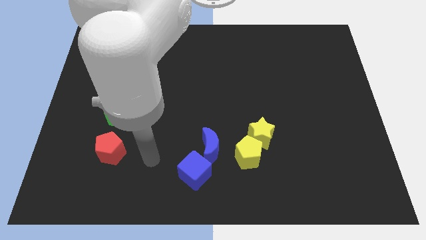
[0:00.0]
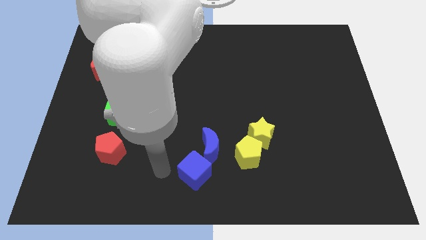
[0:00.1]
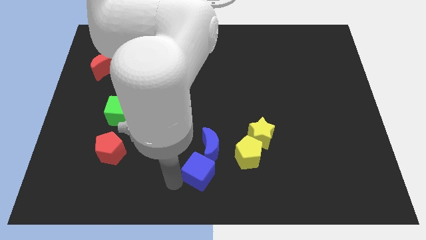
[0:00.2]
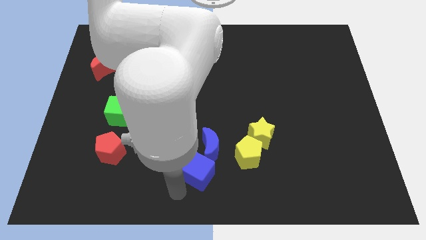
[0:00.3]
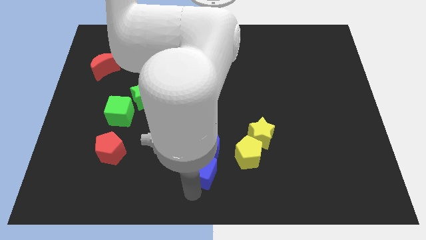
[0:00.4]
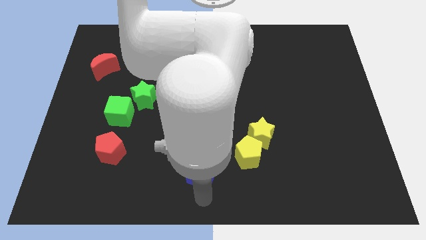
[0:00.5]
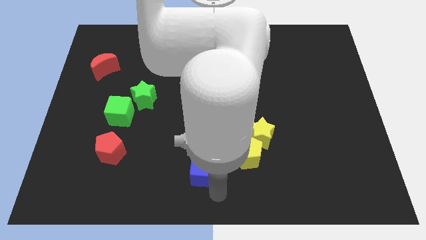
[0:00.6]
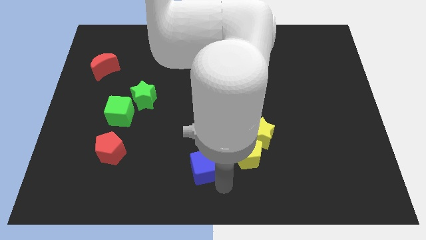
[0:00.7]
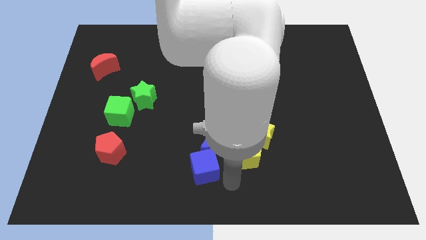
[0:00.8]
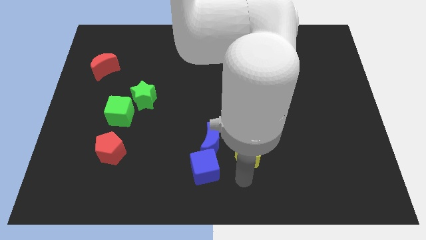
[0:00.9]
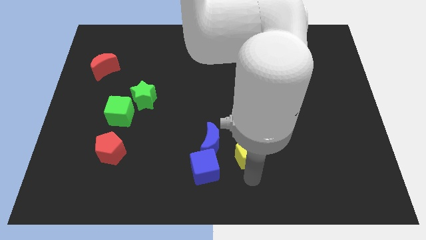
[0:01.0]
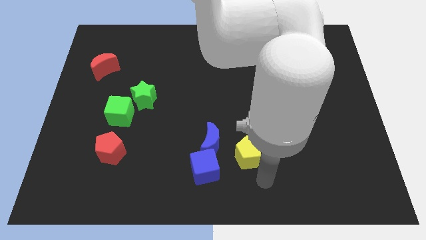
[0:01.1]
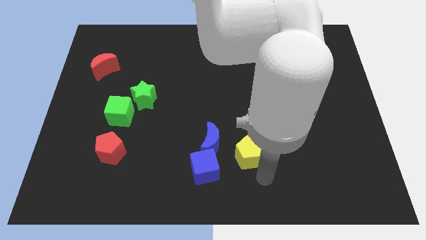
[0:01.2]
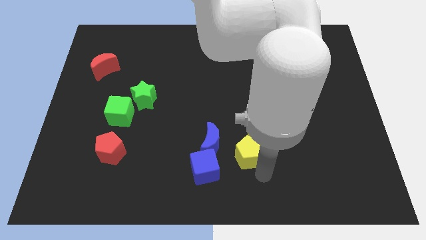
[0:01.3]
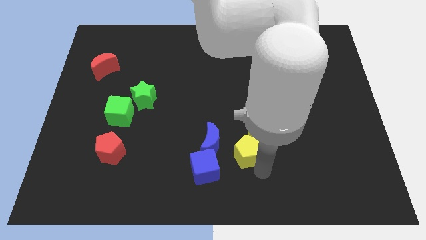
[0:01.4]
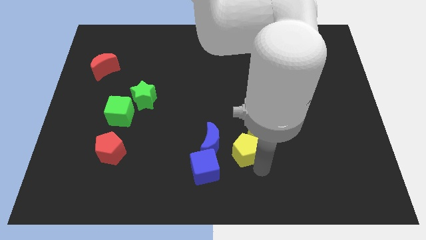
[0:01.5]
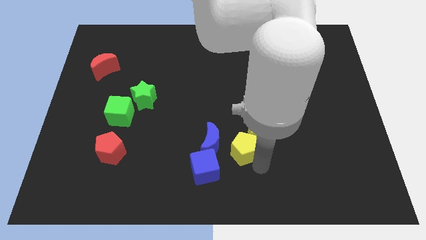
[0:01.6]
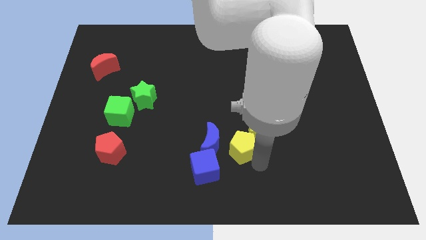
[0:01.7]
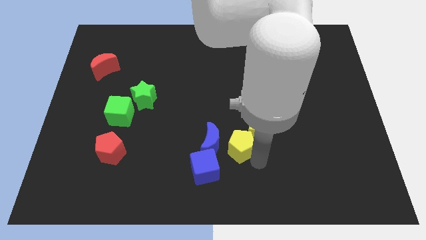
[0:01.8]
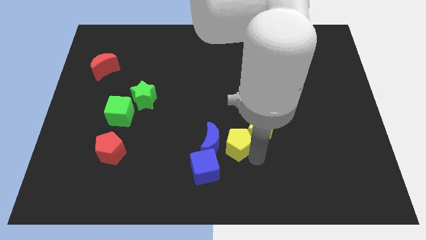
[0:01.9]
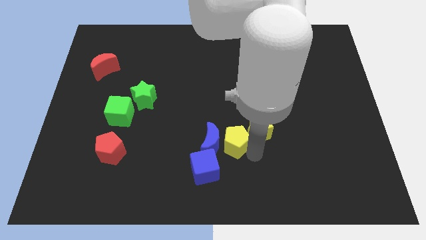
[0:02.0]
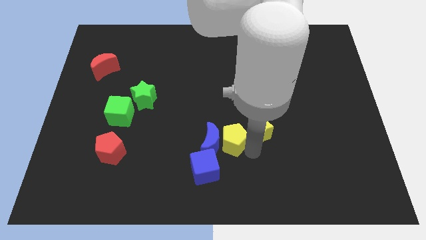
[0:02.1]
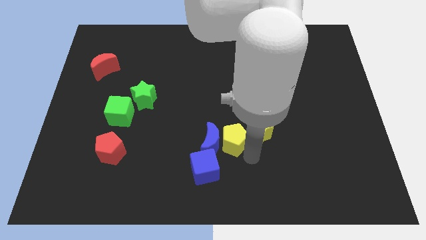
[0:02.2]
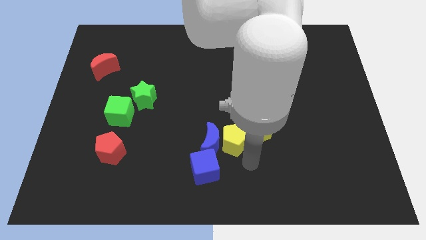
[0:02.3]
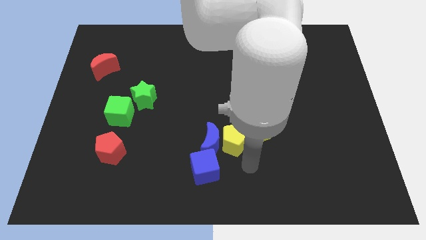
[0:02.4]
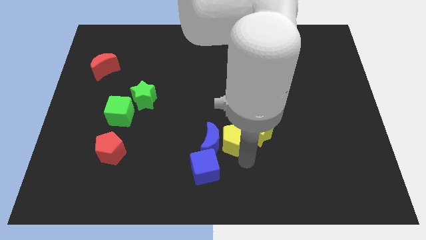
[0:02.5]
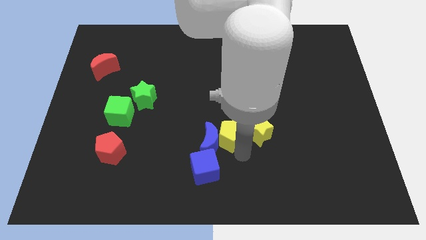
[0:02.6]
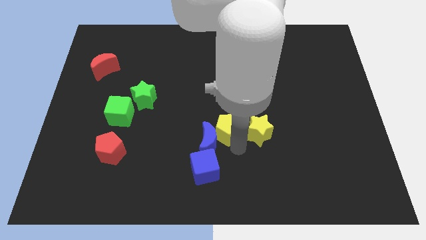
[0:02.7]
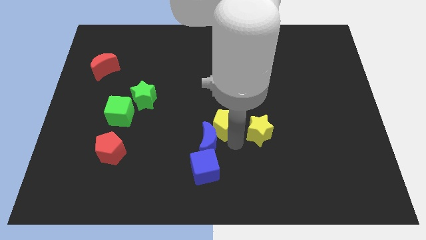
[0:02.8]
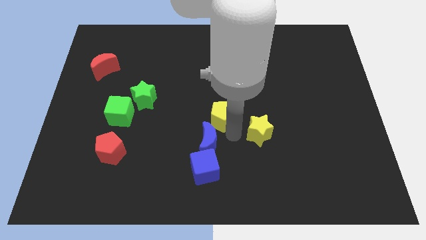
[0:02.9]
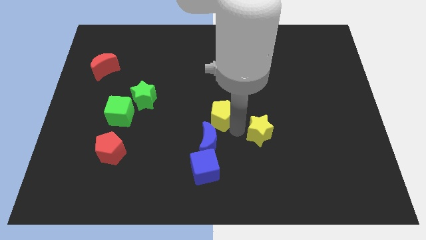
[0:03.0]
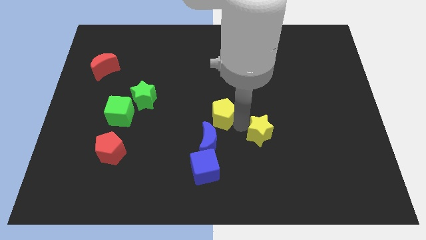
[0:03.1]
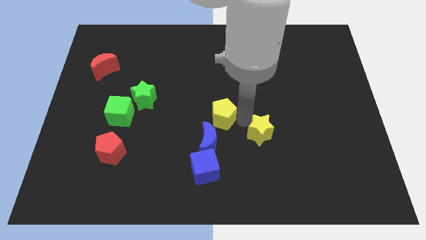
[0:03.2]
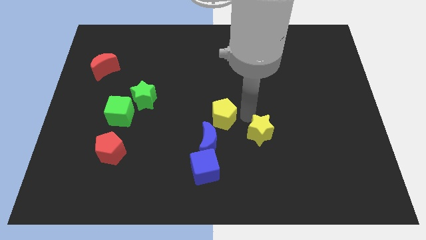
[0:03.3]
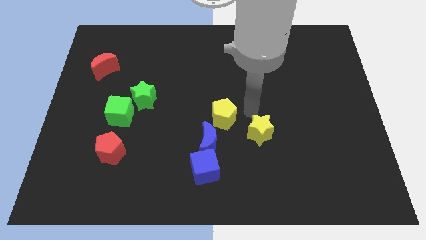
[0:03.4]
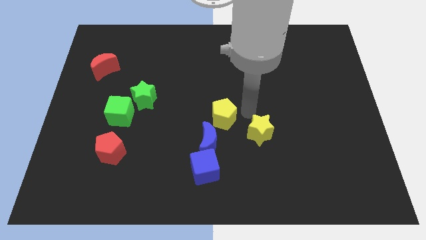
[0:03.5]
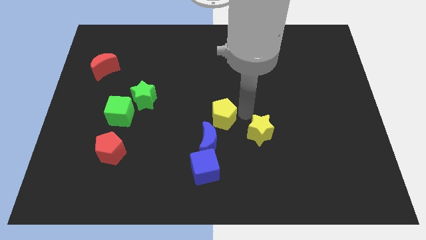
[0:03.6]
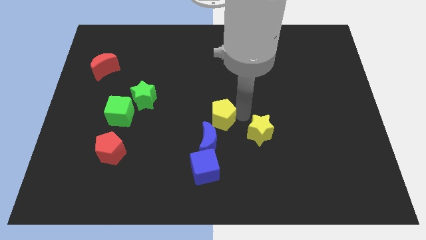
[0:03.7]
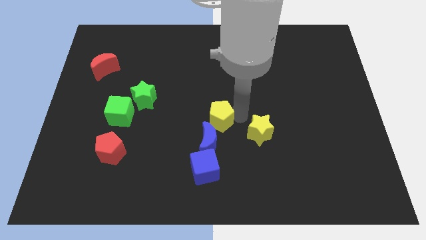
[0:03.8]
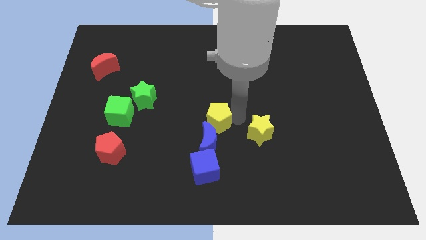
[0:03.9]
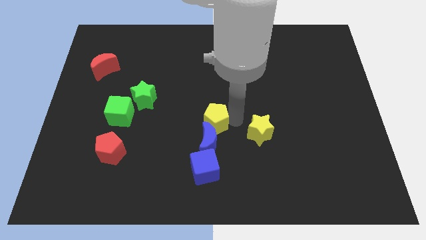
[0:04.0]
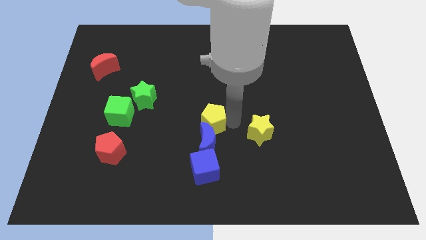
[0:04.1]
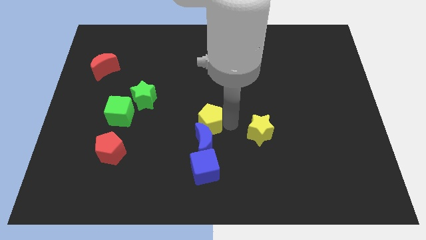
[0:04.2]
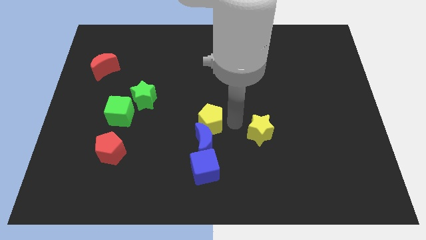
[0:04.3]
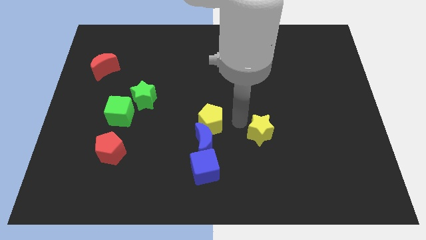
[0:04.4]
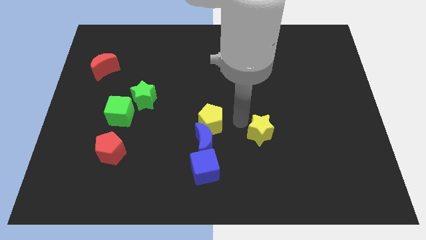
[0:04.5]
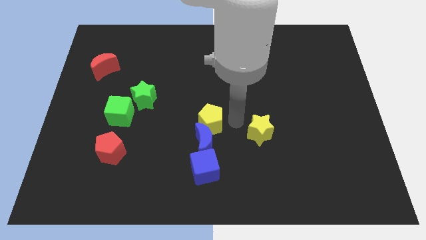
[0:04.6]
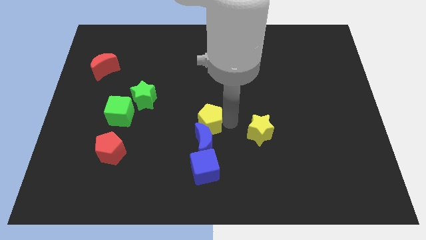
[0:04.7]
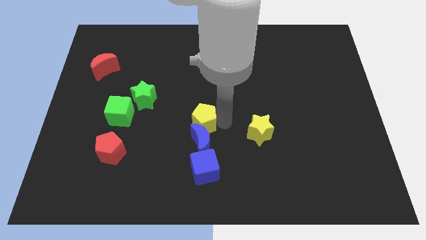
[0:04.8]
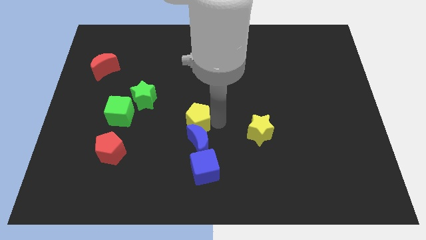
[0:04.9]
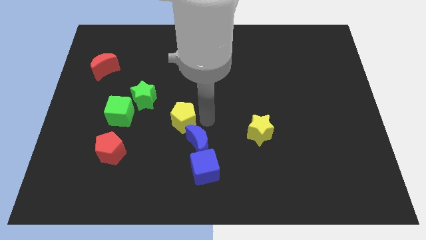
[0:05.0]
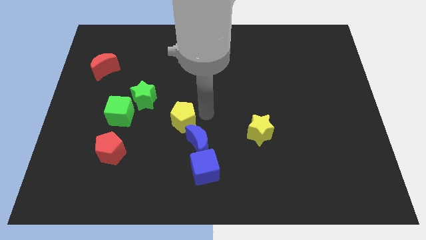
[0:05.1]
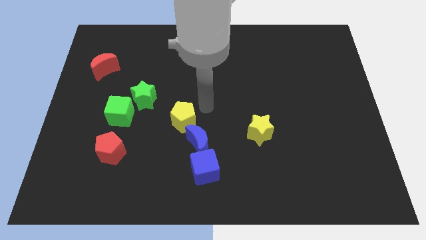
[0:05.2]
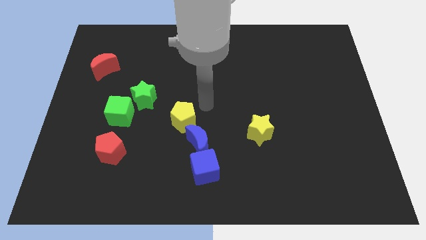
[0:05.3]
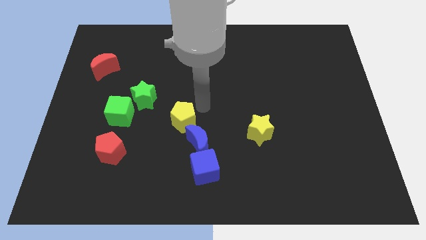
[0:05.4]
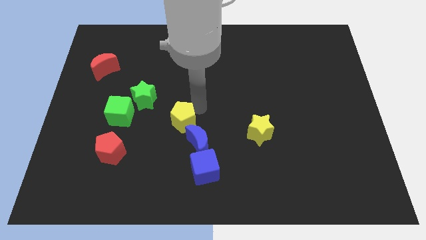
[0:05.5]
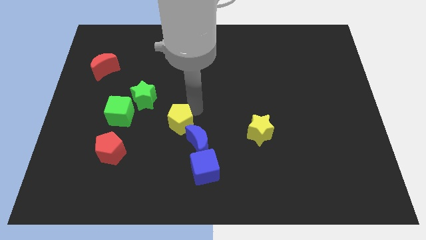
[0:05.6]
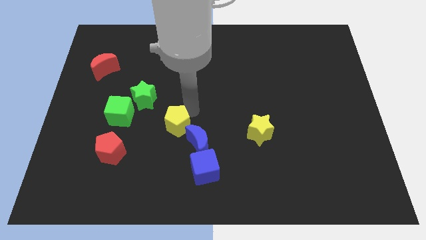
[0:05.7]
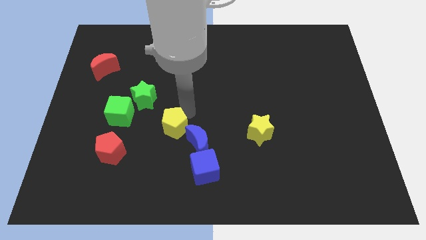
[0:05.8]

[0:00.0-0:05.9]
push the yellow pentagon left of the blue moon

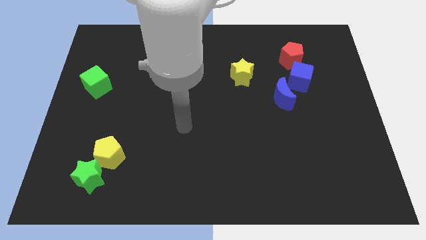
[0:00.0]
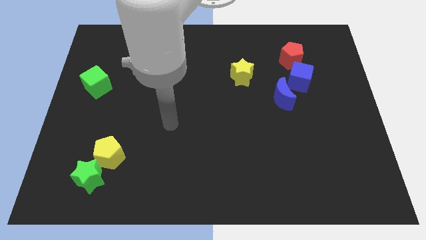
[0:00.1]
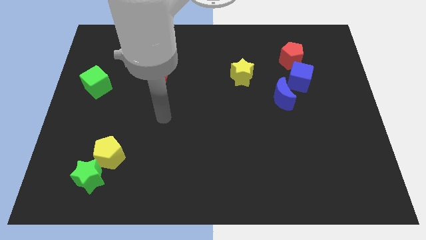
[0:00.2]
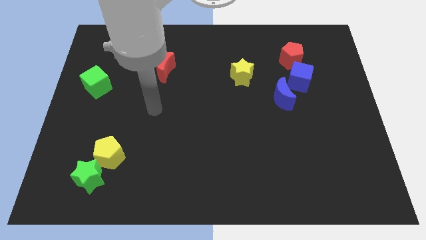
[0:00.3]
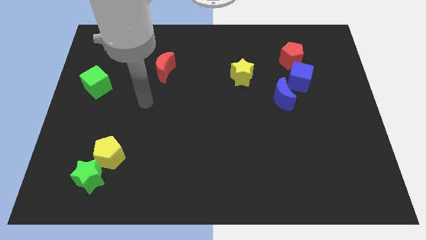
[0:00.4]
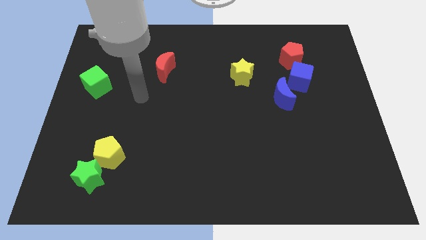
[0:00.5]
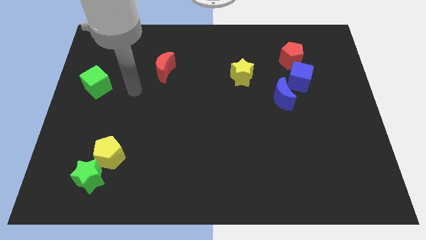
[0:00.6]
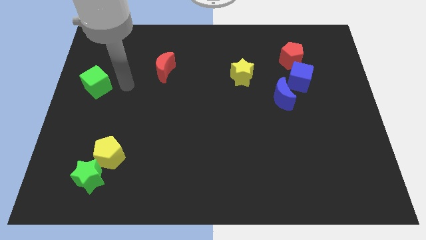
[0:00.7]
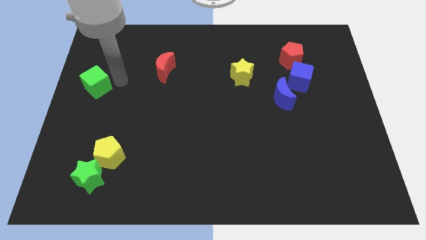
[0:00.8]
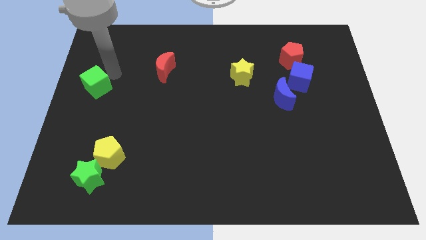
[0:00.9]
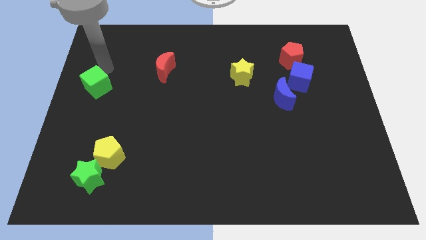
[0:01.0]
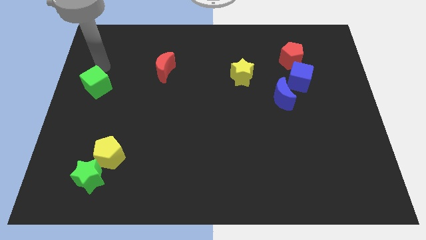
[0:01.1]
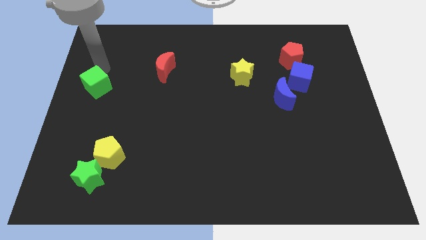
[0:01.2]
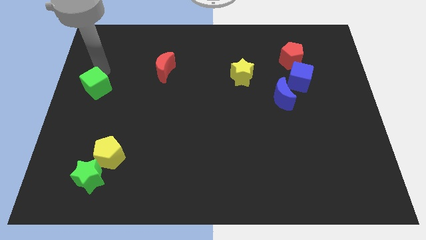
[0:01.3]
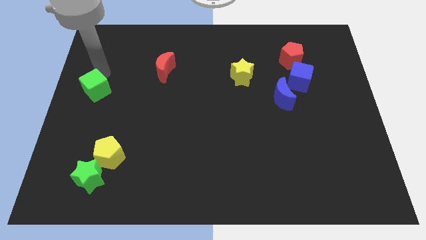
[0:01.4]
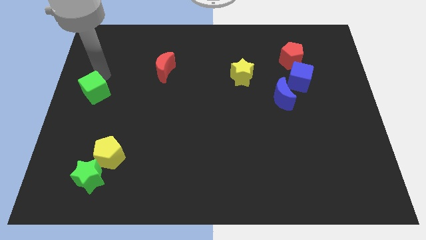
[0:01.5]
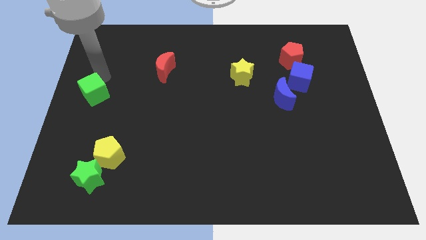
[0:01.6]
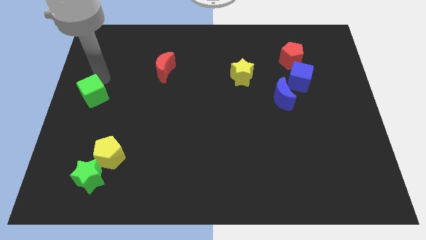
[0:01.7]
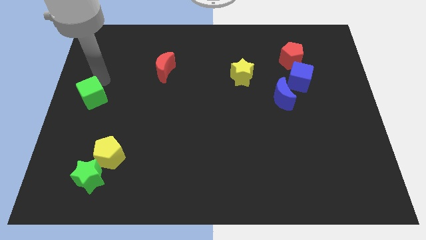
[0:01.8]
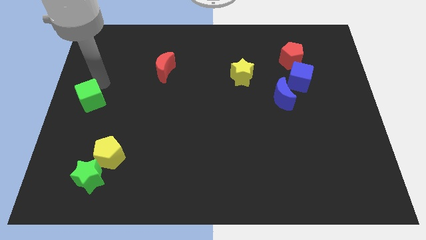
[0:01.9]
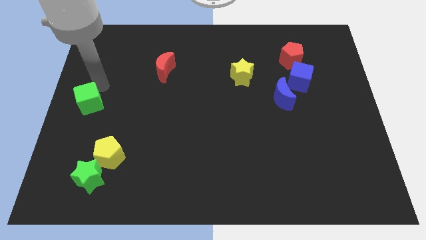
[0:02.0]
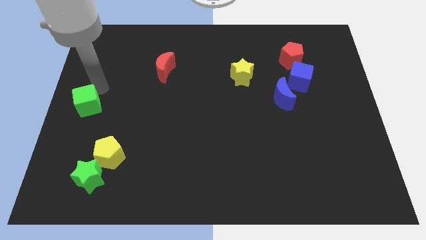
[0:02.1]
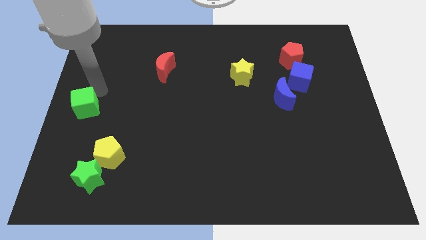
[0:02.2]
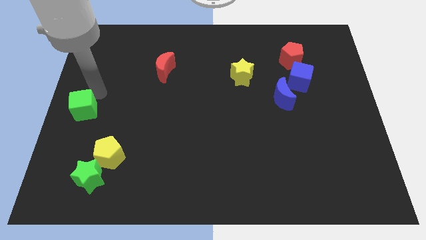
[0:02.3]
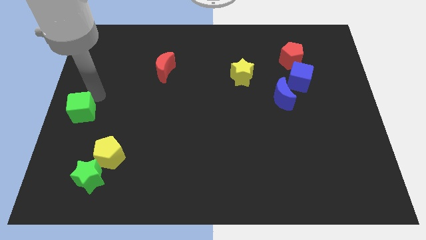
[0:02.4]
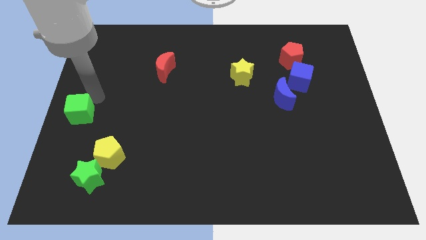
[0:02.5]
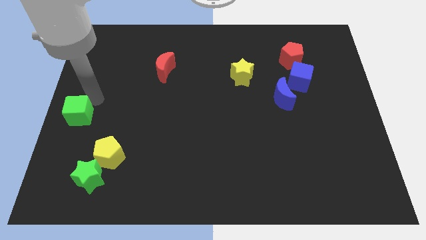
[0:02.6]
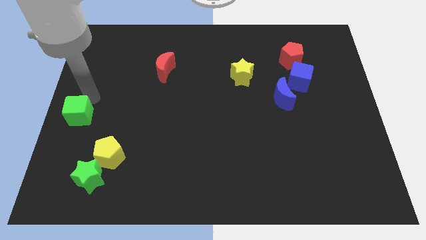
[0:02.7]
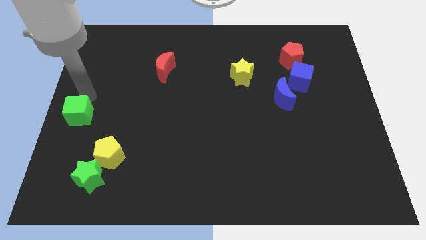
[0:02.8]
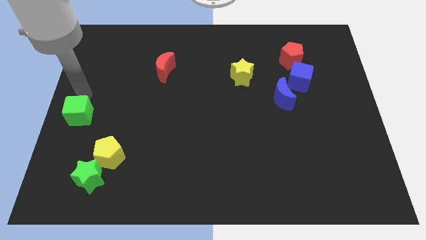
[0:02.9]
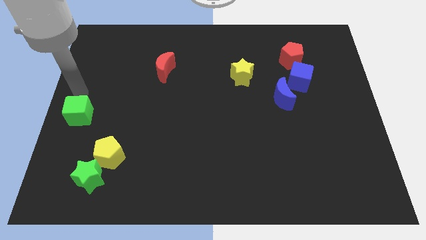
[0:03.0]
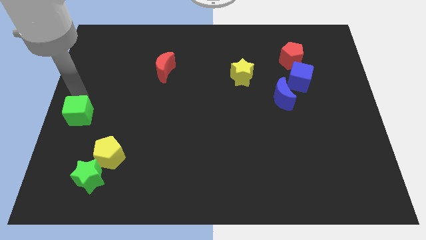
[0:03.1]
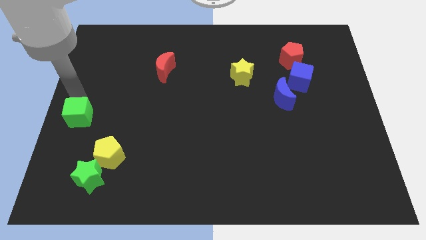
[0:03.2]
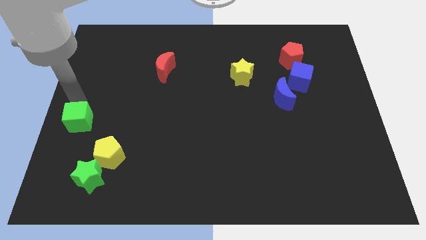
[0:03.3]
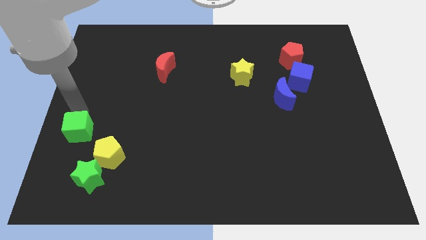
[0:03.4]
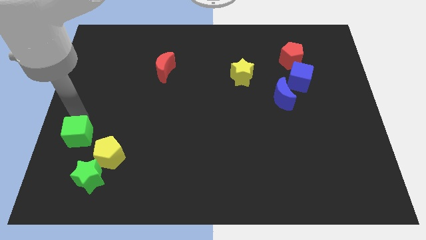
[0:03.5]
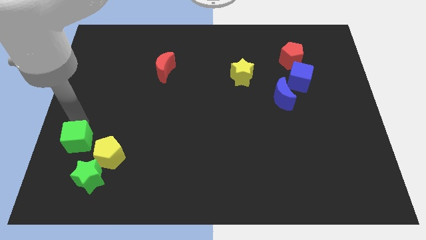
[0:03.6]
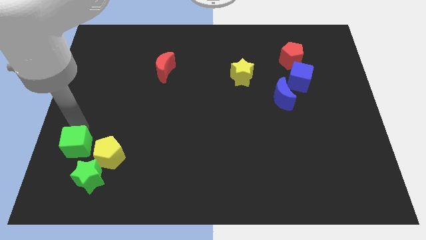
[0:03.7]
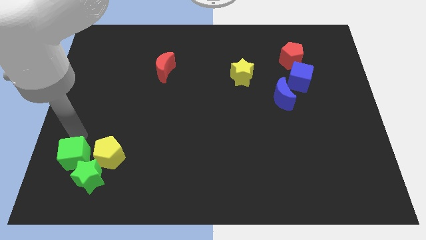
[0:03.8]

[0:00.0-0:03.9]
move the green cube to the bottom left of the yellow pentagon
